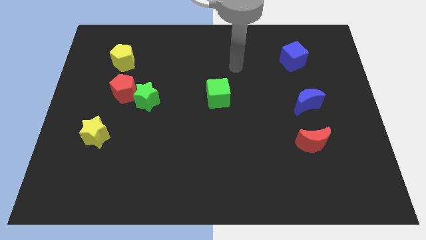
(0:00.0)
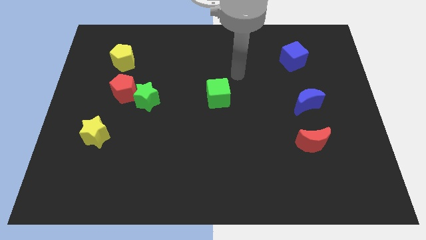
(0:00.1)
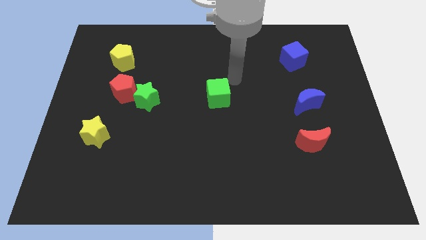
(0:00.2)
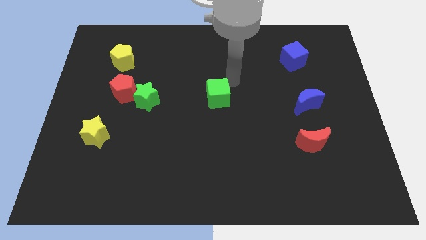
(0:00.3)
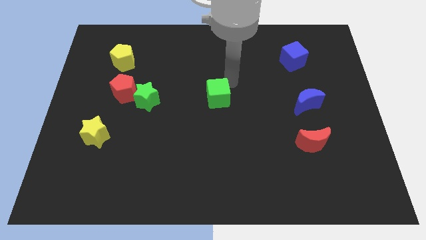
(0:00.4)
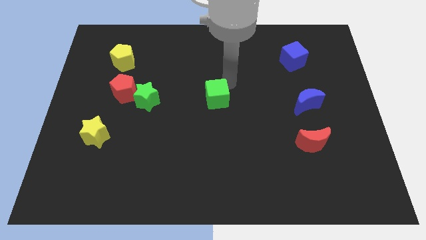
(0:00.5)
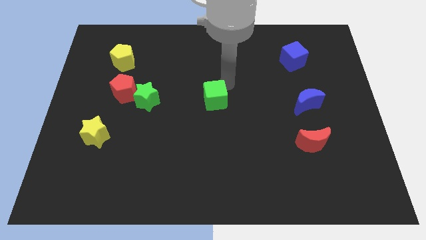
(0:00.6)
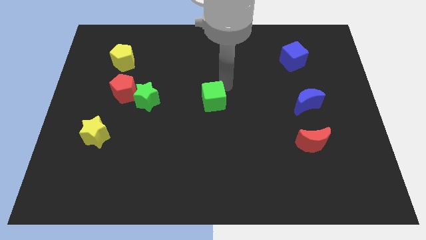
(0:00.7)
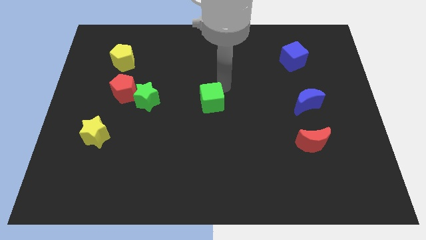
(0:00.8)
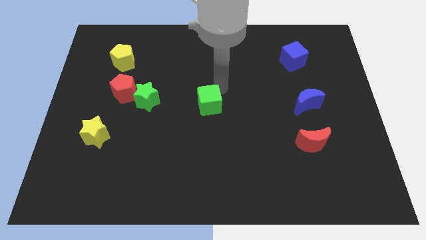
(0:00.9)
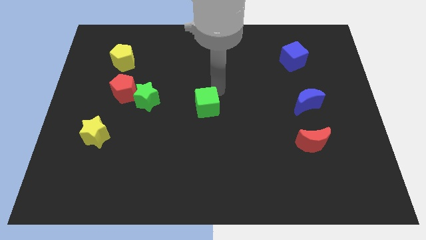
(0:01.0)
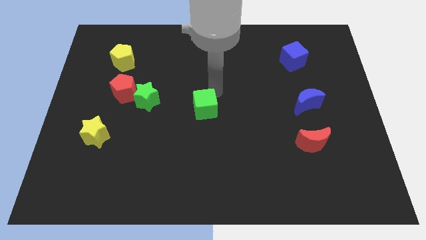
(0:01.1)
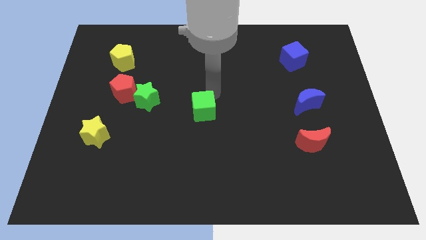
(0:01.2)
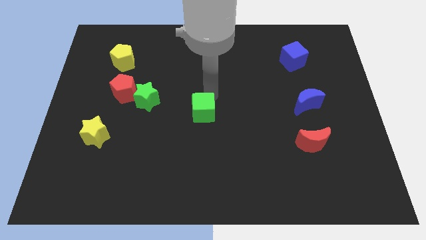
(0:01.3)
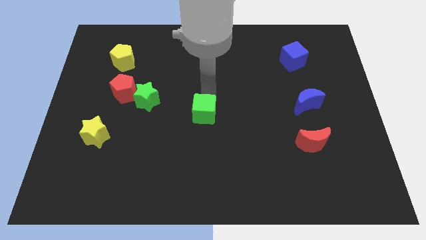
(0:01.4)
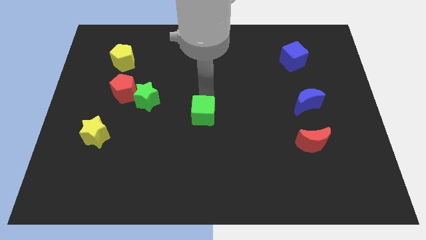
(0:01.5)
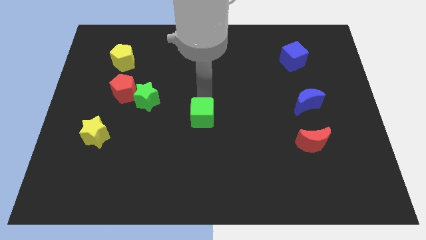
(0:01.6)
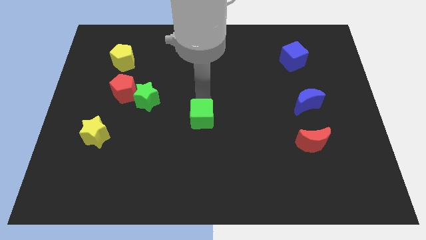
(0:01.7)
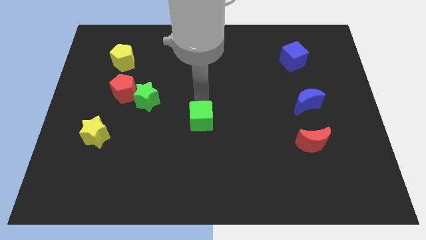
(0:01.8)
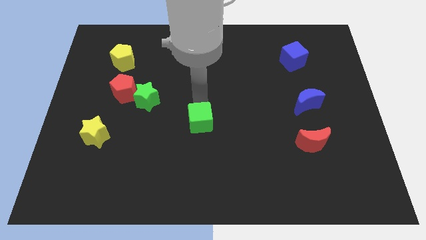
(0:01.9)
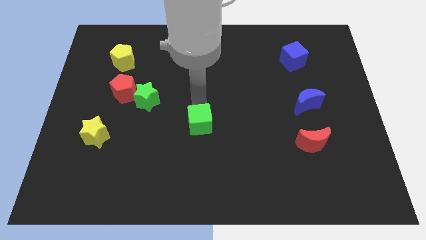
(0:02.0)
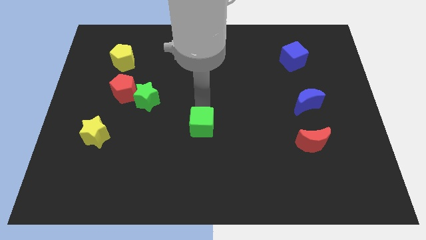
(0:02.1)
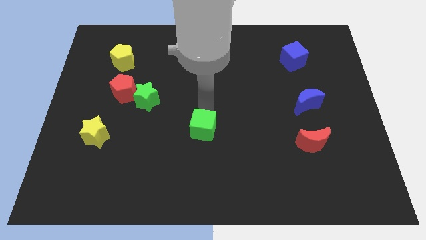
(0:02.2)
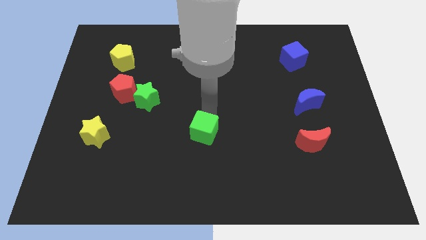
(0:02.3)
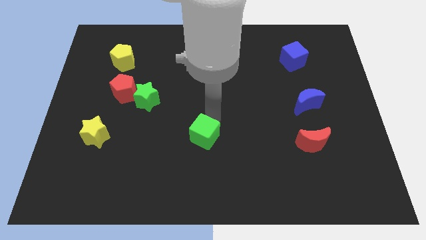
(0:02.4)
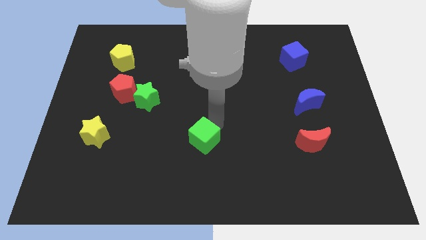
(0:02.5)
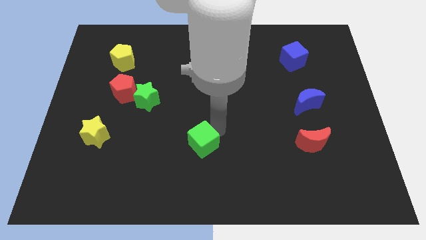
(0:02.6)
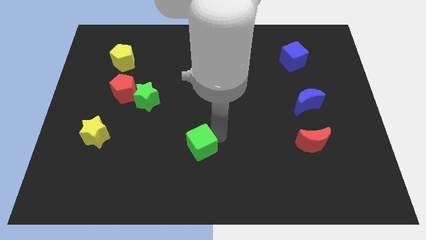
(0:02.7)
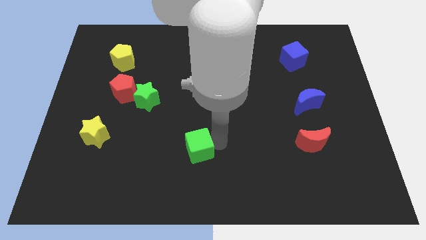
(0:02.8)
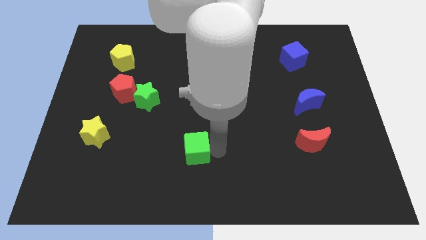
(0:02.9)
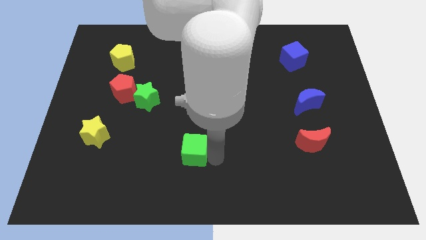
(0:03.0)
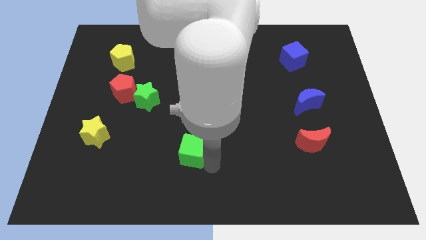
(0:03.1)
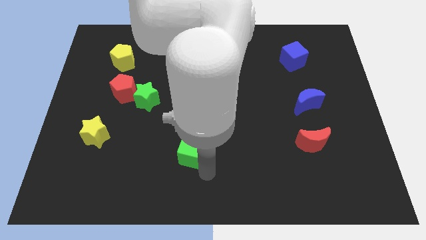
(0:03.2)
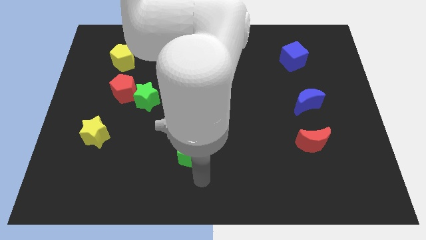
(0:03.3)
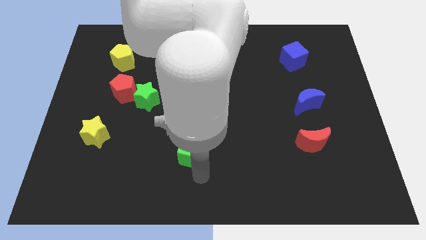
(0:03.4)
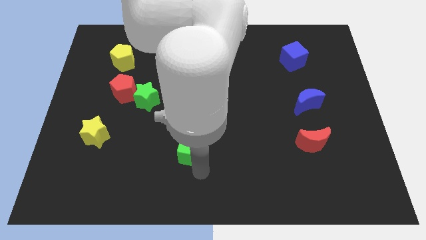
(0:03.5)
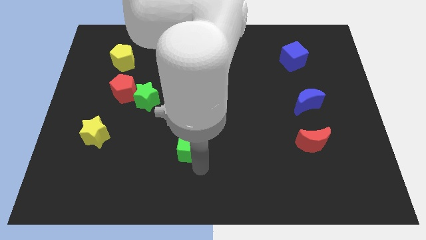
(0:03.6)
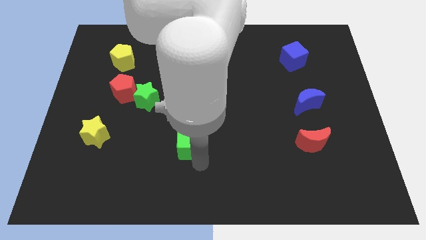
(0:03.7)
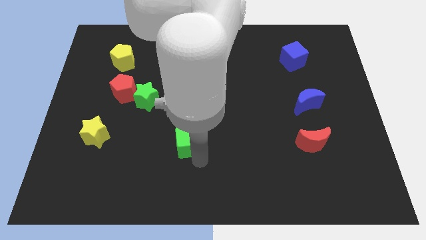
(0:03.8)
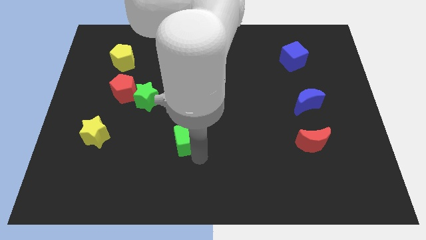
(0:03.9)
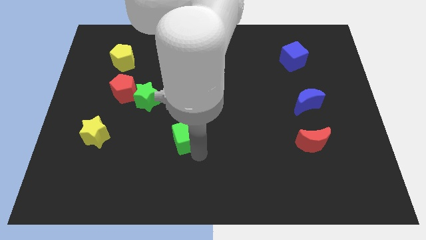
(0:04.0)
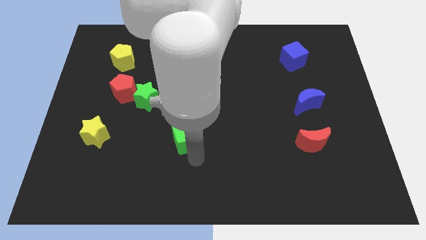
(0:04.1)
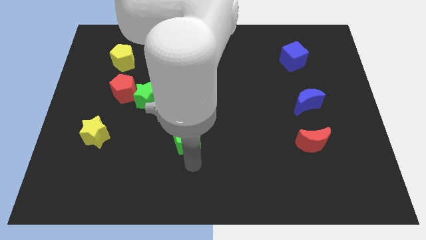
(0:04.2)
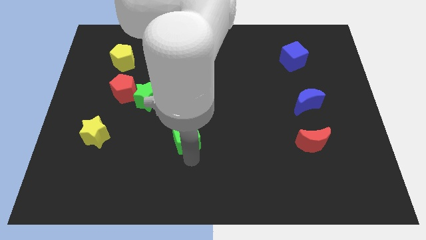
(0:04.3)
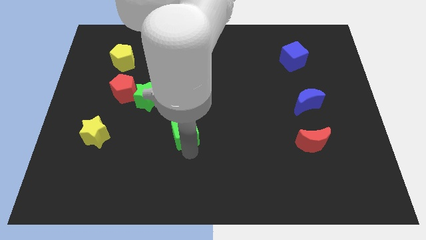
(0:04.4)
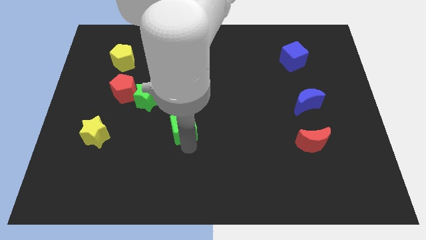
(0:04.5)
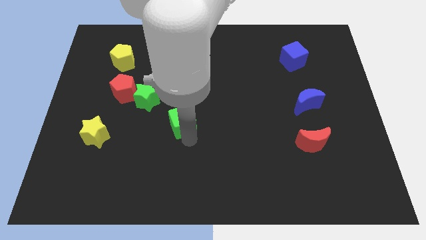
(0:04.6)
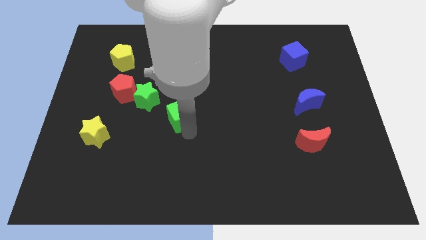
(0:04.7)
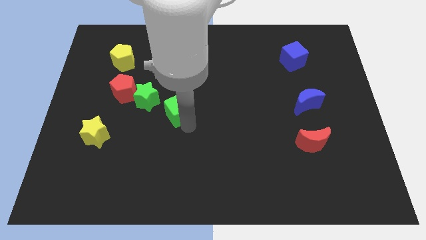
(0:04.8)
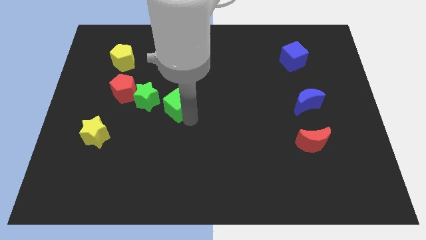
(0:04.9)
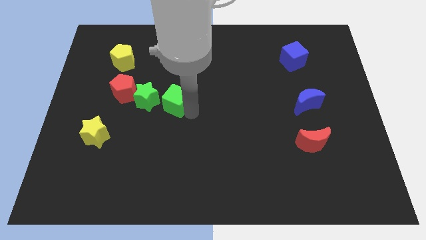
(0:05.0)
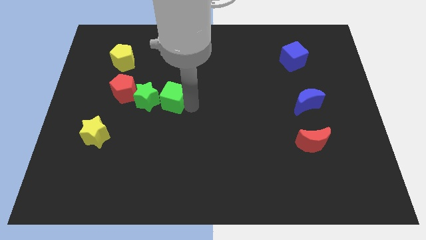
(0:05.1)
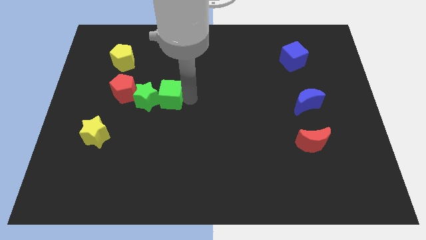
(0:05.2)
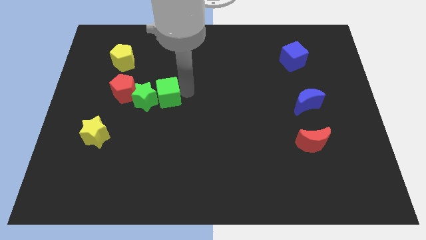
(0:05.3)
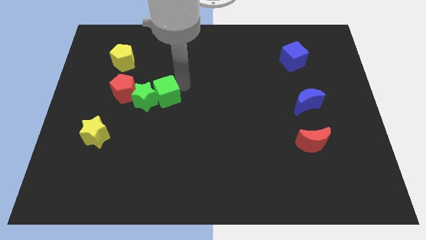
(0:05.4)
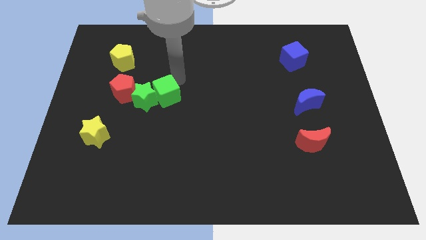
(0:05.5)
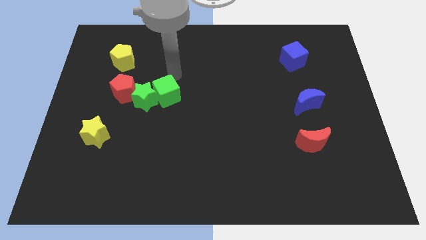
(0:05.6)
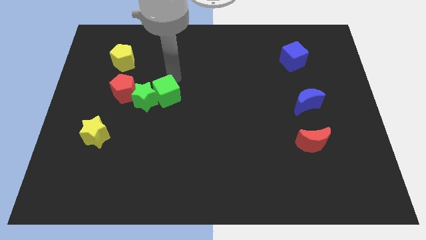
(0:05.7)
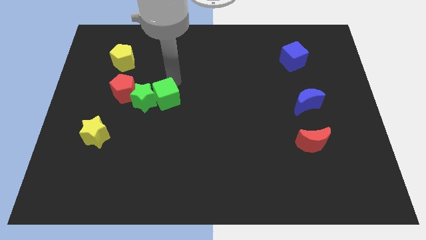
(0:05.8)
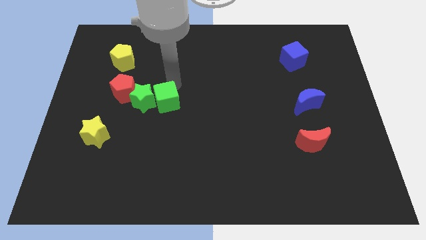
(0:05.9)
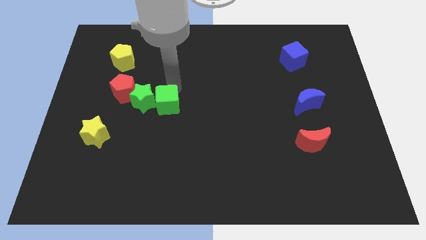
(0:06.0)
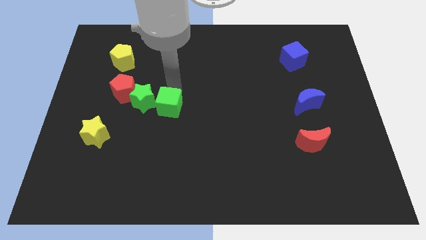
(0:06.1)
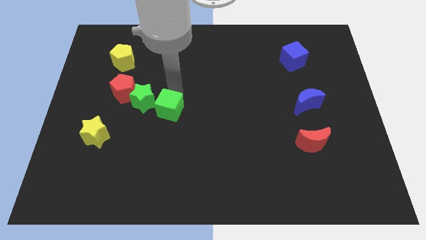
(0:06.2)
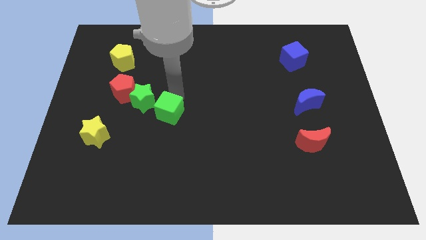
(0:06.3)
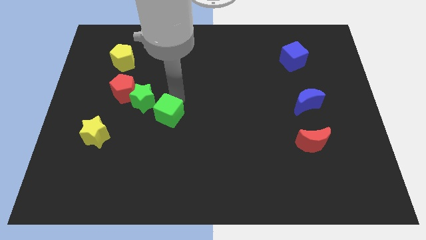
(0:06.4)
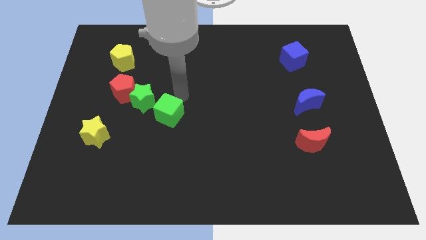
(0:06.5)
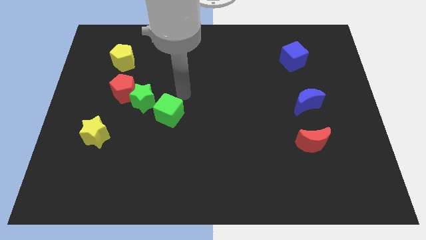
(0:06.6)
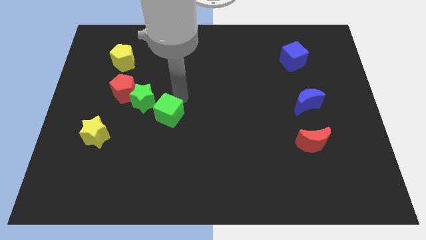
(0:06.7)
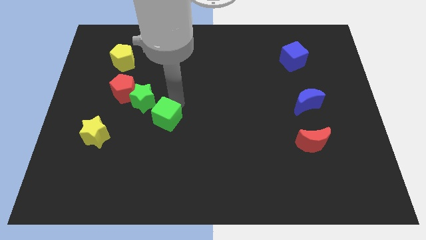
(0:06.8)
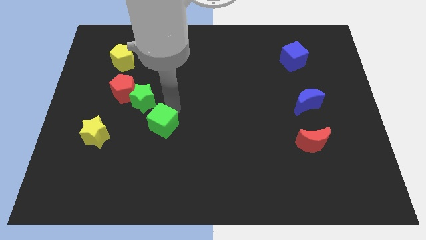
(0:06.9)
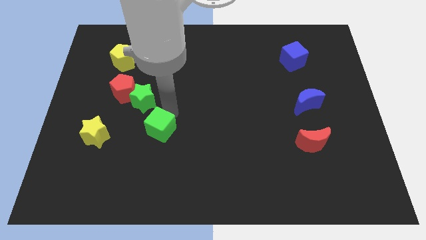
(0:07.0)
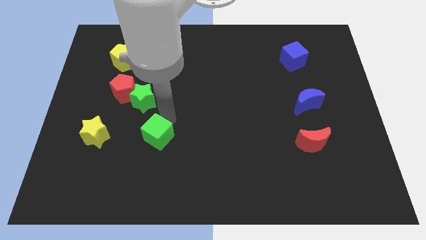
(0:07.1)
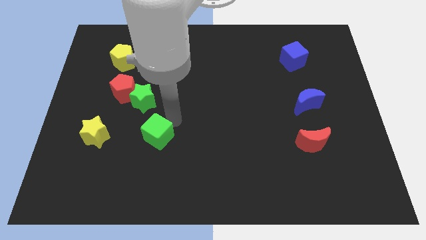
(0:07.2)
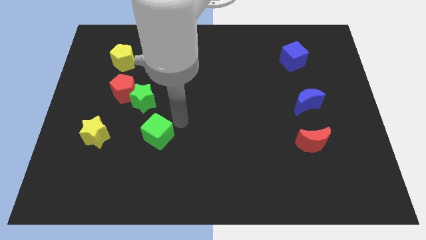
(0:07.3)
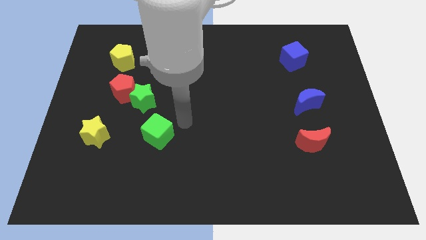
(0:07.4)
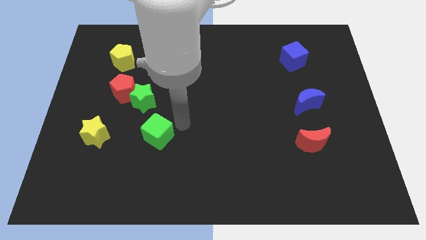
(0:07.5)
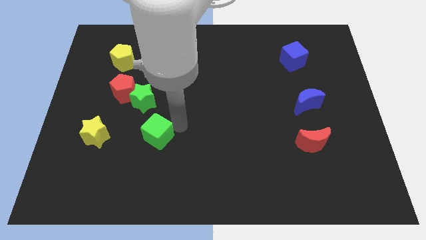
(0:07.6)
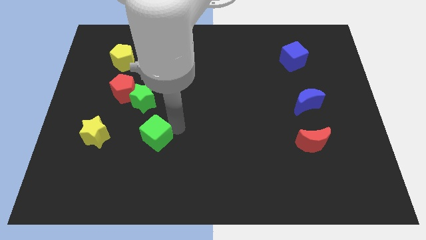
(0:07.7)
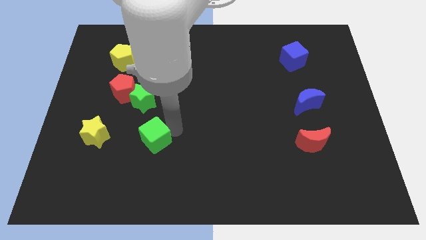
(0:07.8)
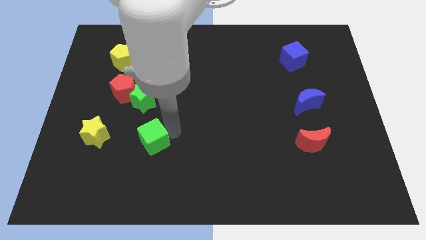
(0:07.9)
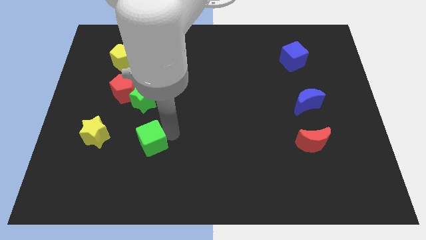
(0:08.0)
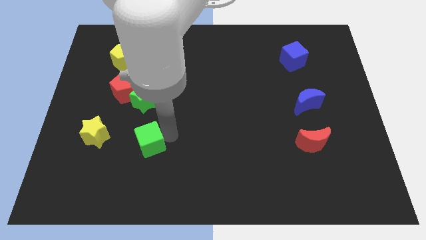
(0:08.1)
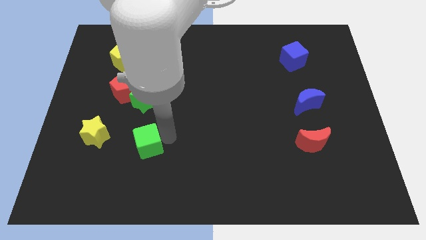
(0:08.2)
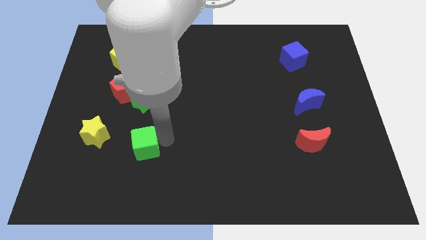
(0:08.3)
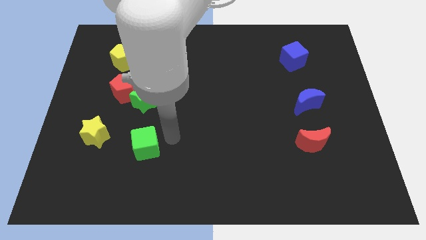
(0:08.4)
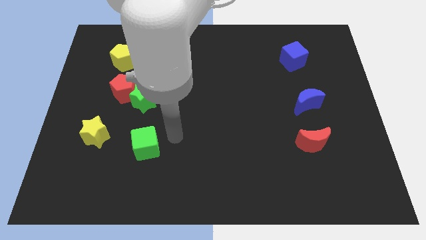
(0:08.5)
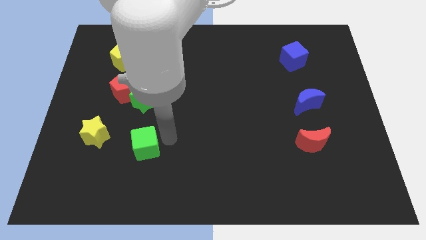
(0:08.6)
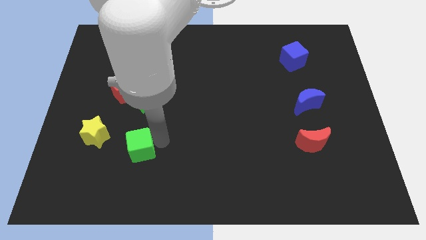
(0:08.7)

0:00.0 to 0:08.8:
move the green cube diagonally down and to the right of the yellow star
